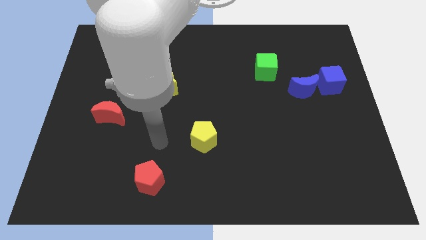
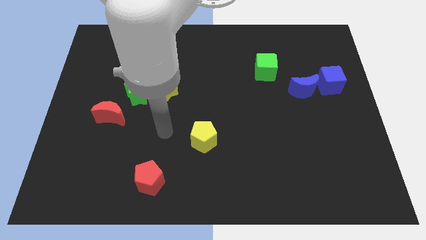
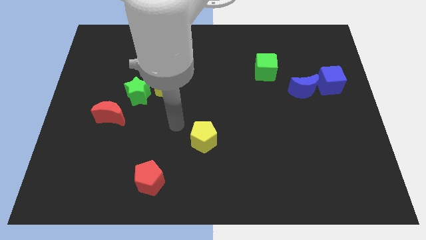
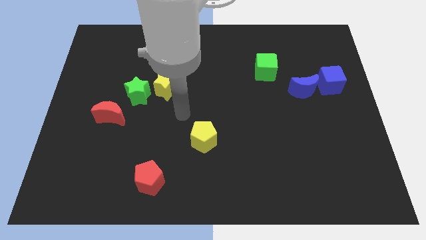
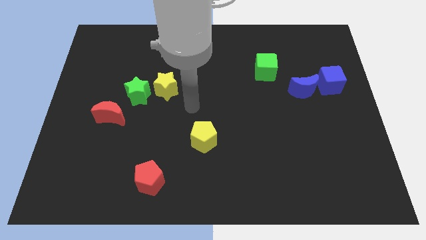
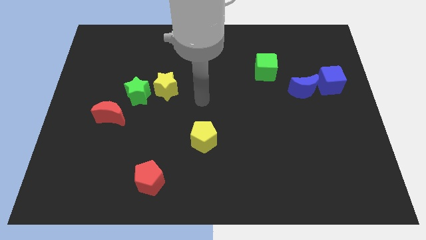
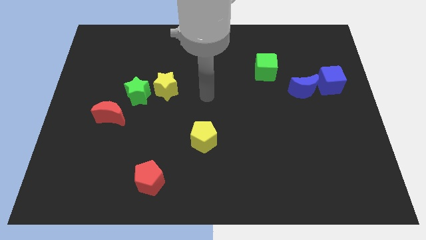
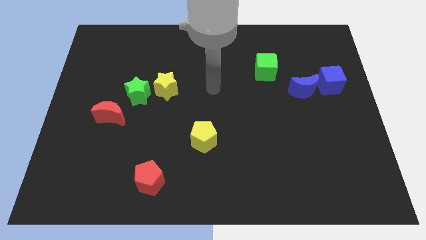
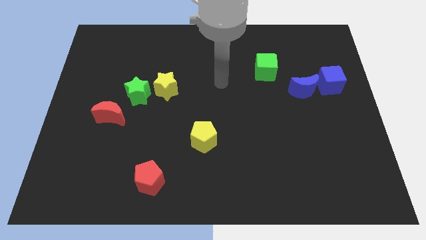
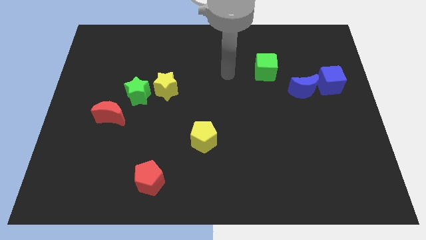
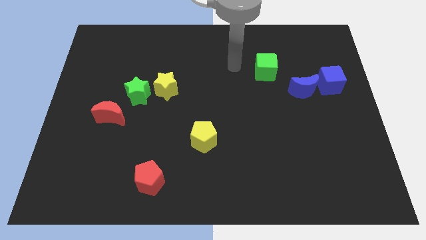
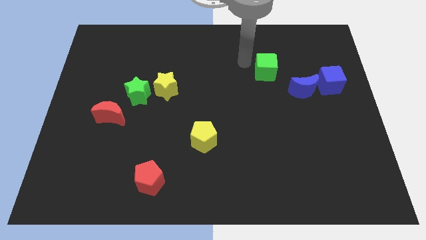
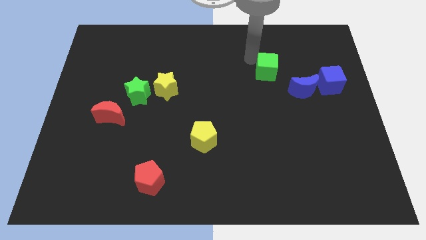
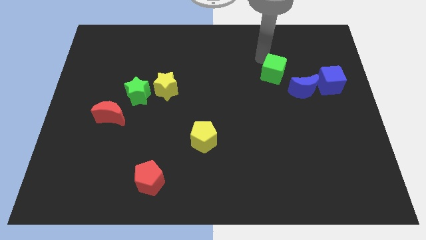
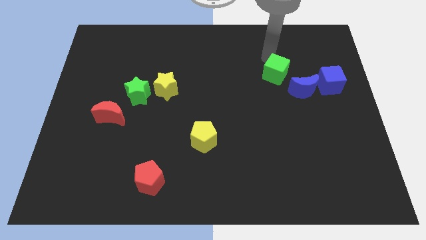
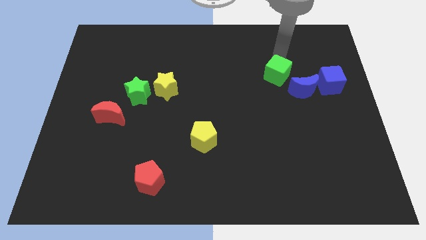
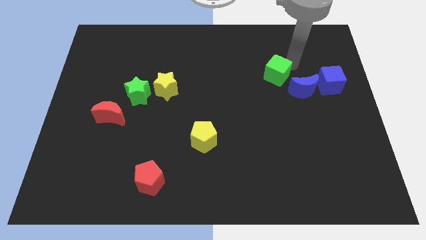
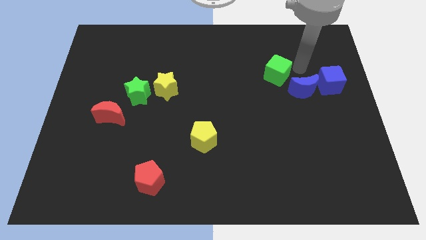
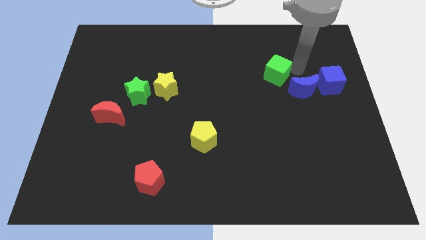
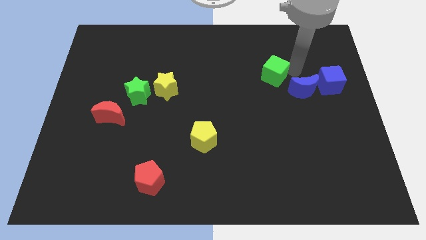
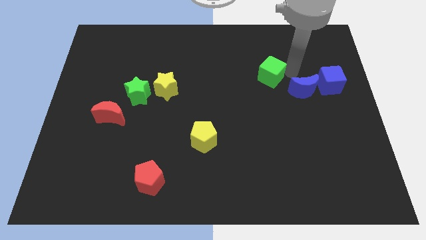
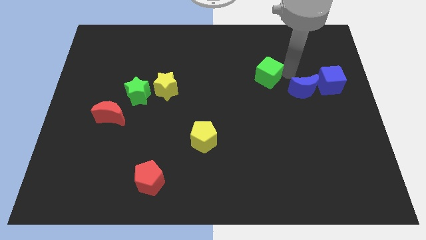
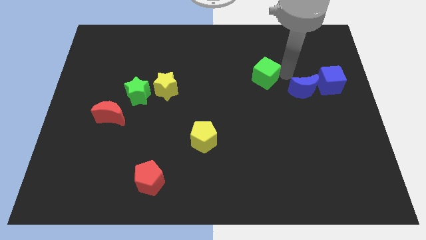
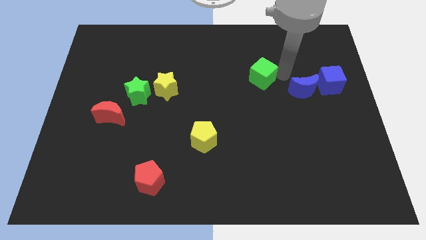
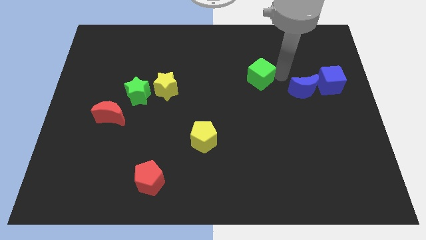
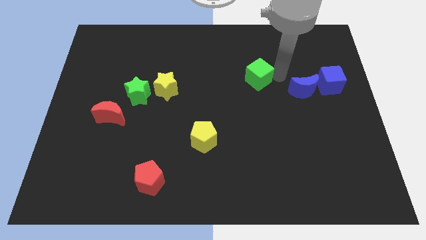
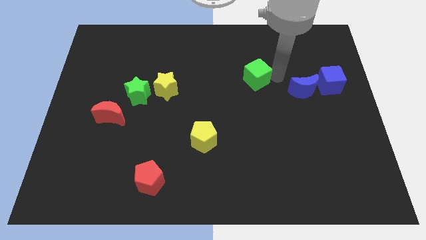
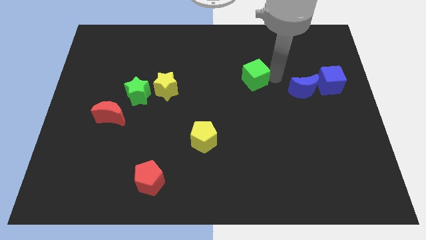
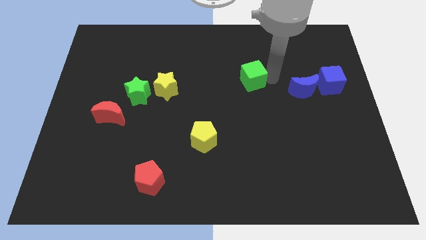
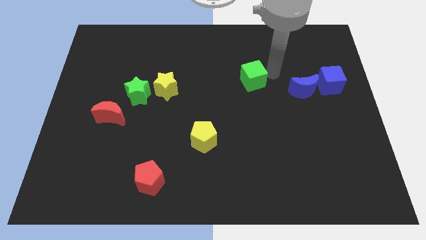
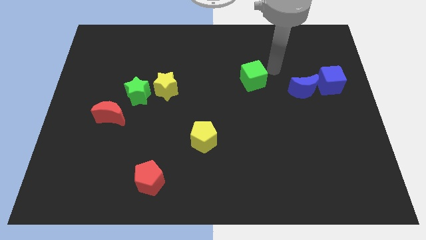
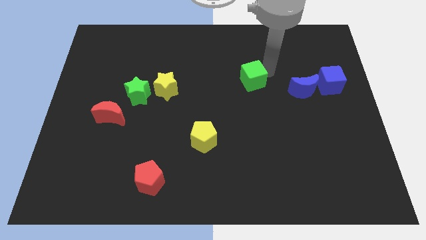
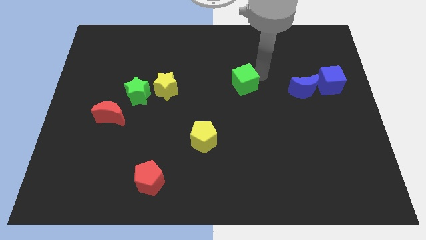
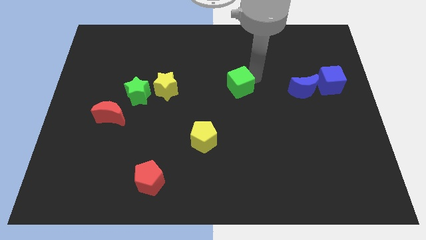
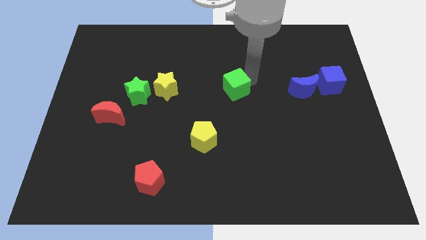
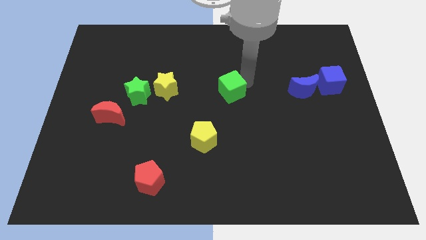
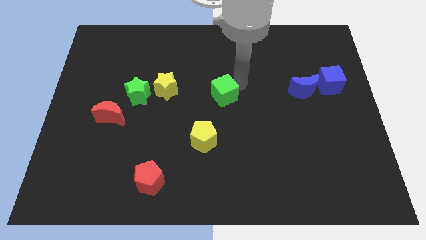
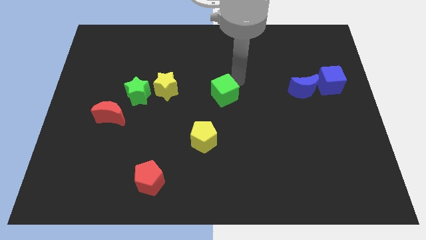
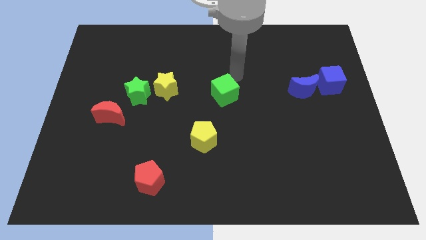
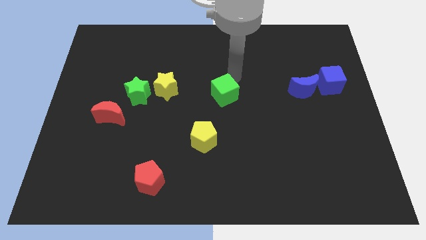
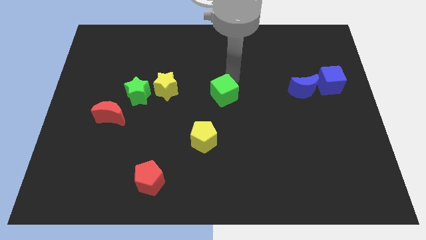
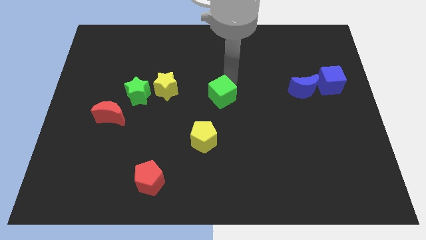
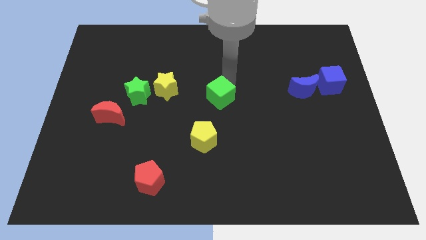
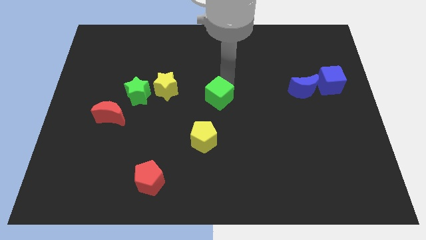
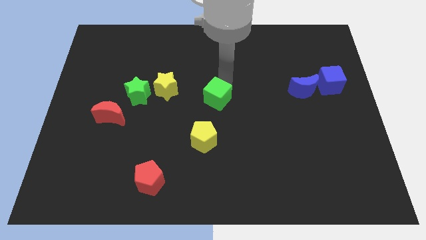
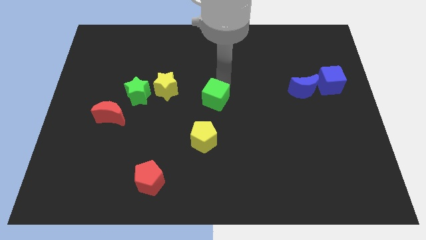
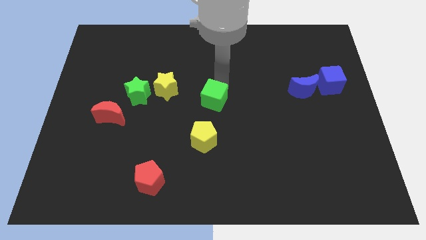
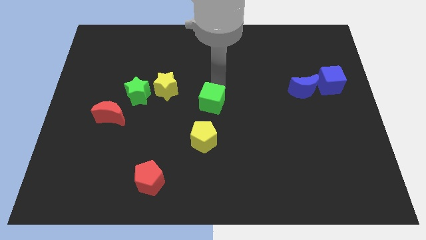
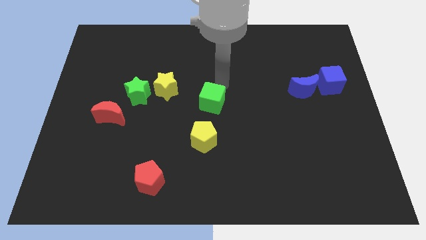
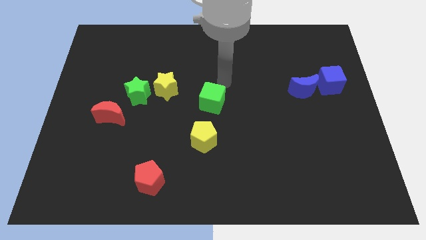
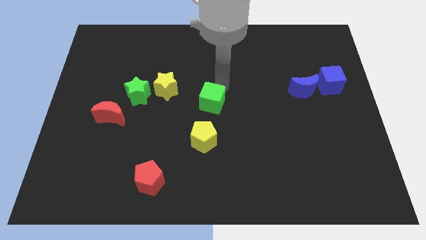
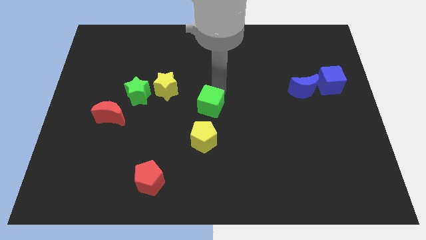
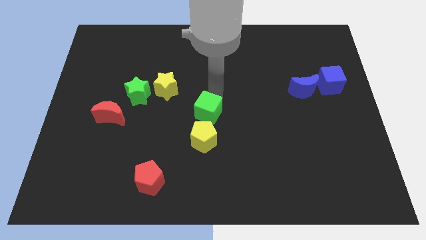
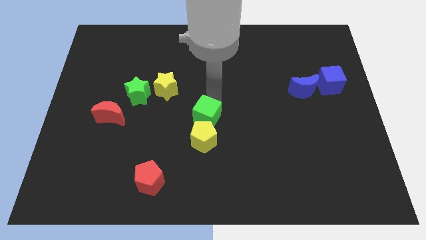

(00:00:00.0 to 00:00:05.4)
move the green cube diagonally downwards and left

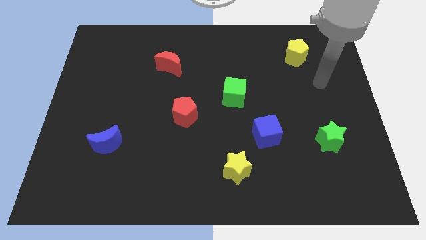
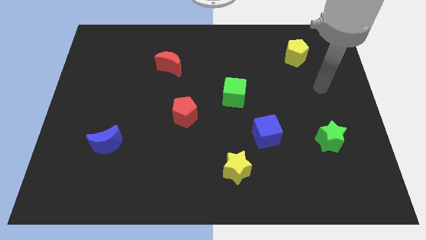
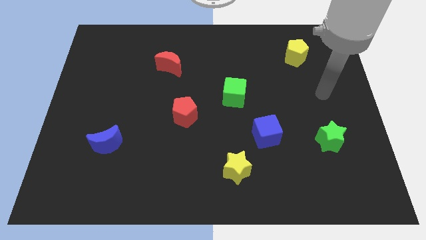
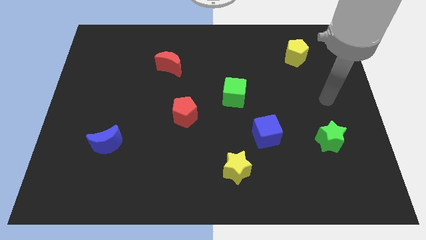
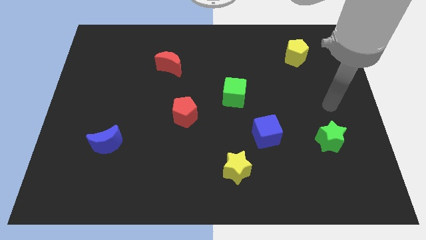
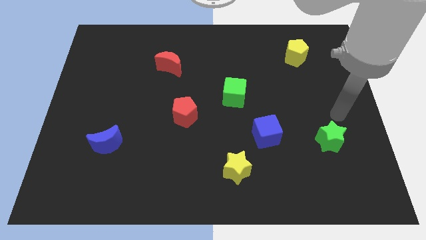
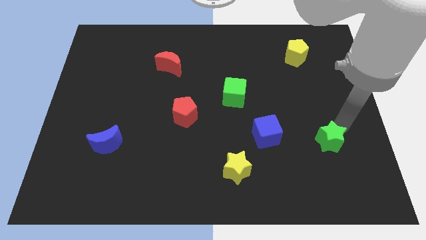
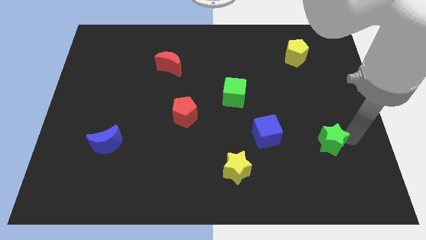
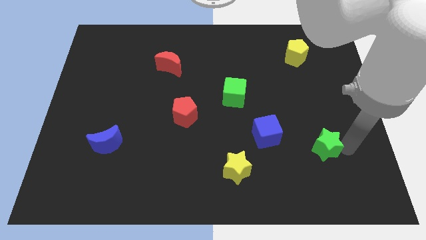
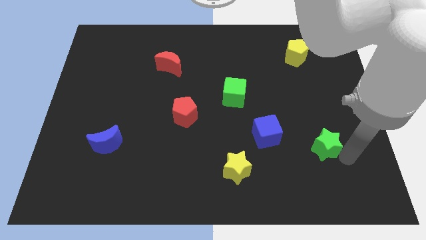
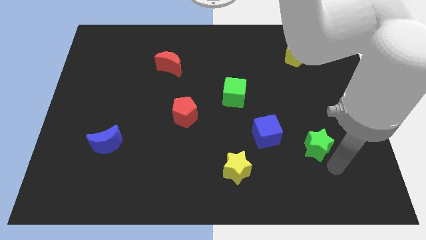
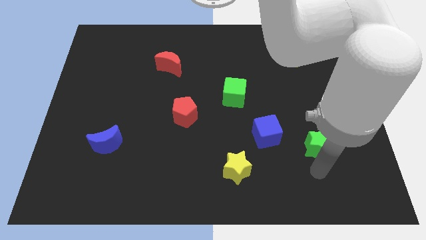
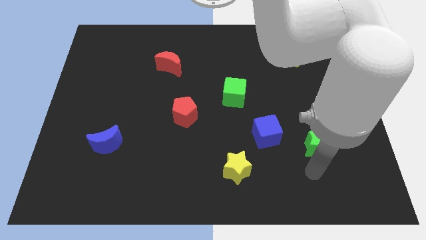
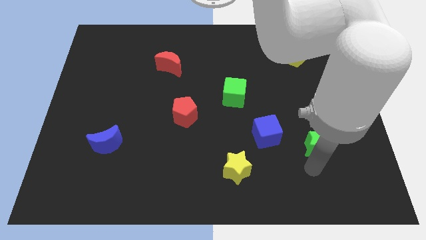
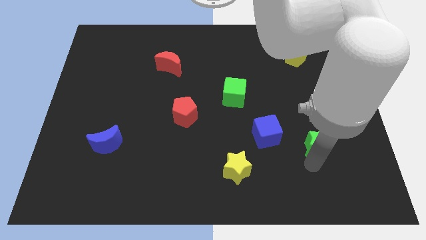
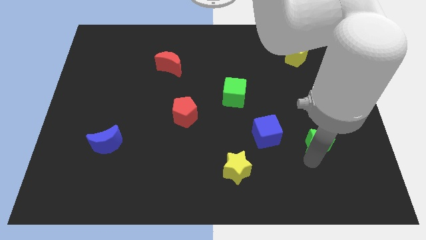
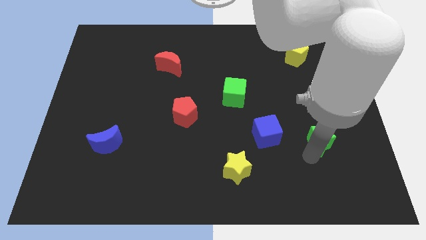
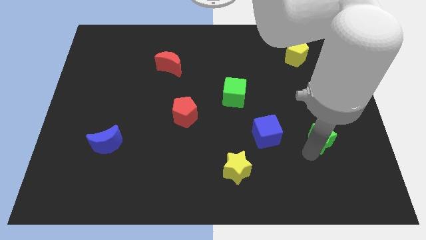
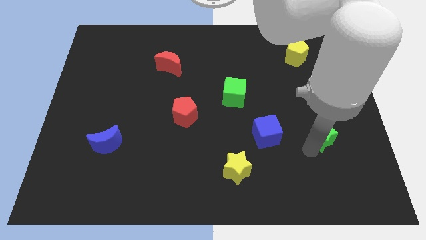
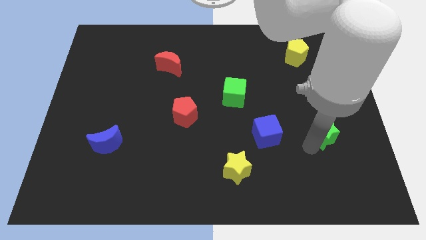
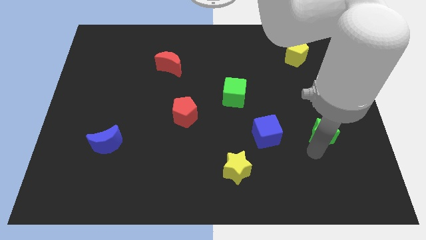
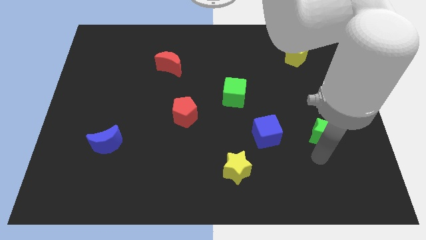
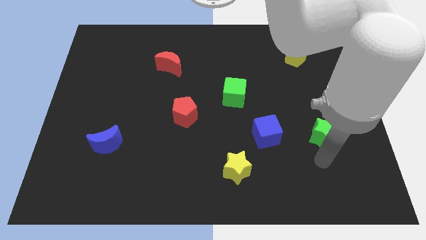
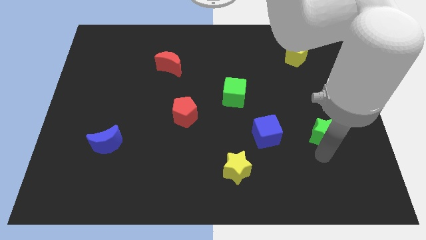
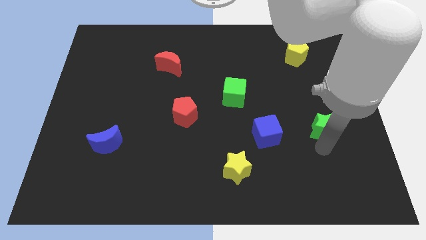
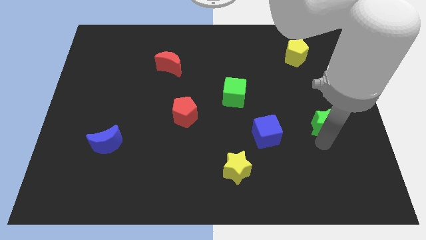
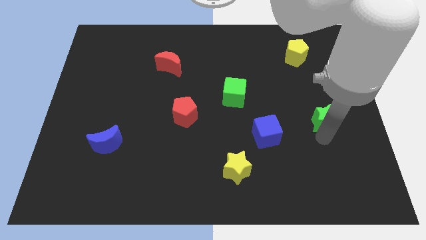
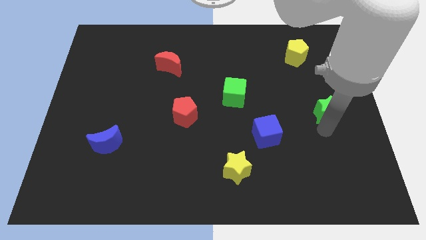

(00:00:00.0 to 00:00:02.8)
move the green star up somewhat
